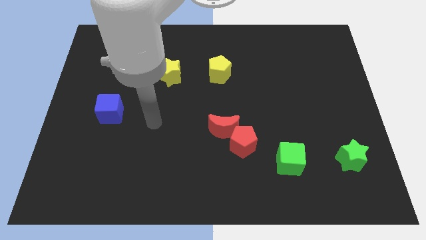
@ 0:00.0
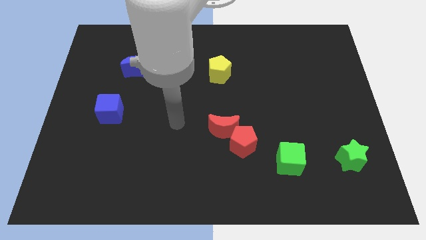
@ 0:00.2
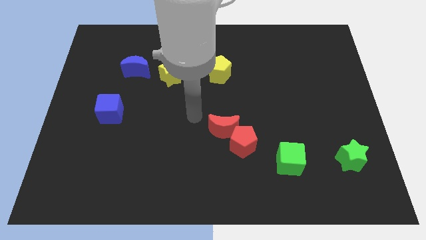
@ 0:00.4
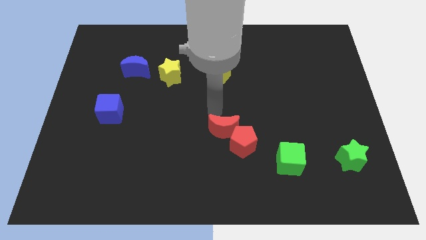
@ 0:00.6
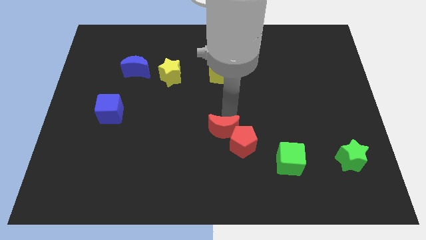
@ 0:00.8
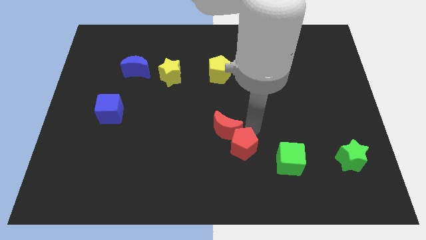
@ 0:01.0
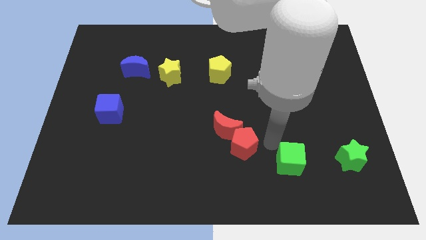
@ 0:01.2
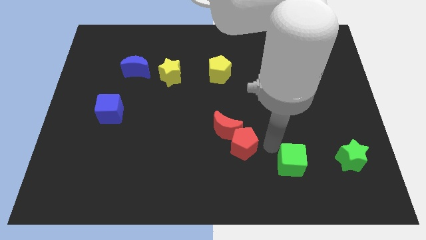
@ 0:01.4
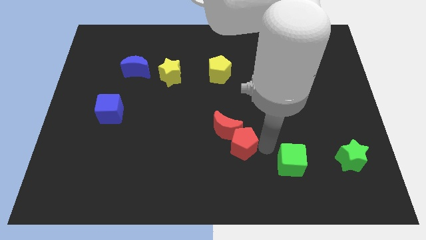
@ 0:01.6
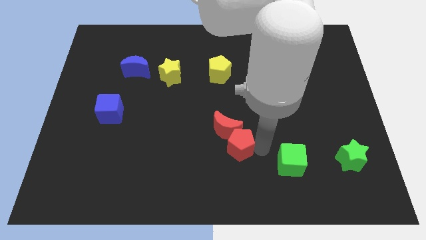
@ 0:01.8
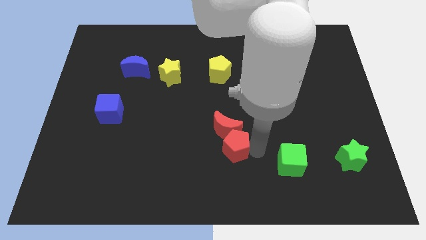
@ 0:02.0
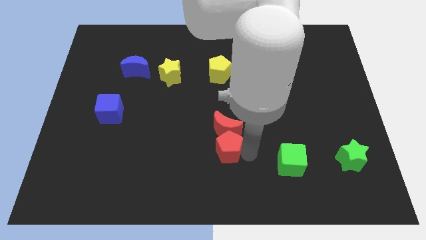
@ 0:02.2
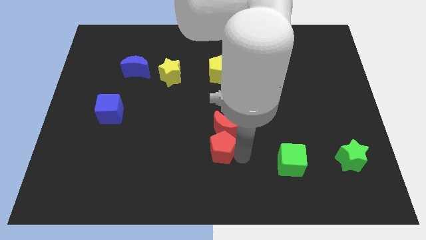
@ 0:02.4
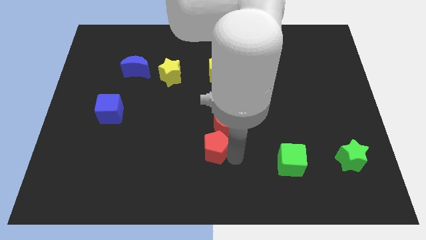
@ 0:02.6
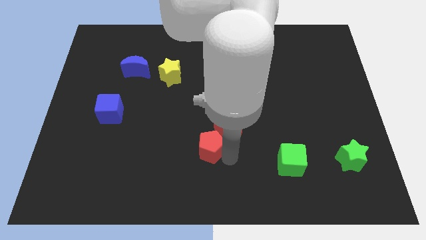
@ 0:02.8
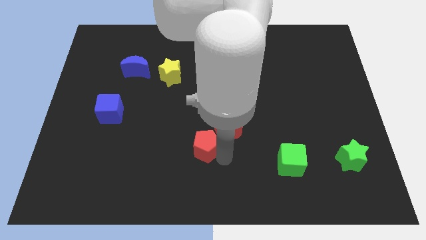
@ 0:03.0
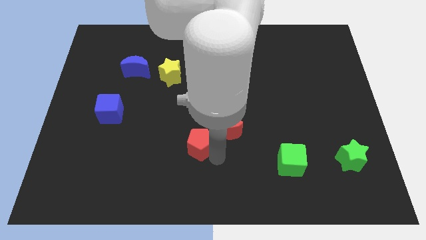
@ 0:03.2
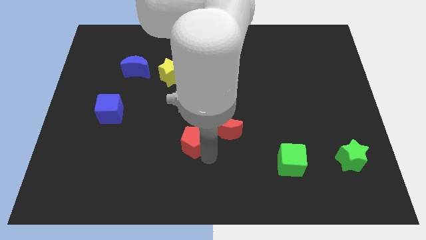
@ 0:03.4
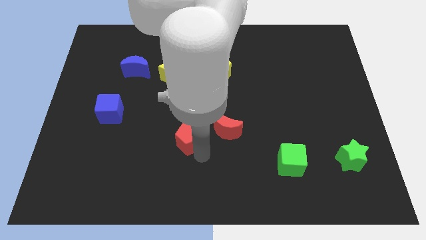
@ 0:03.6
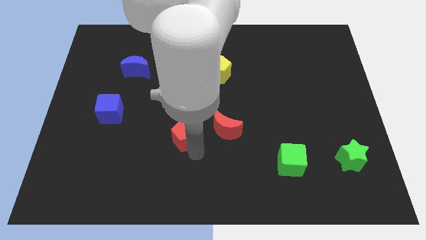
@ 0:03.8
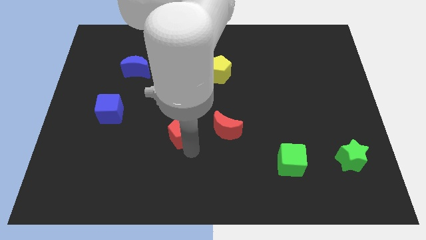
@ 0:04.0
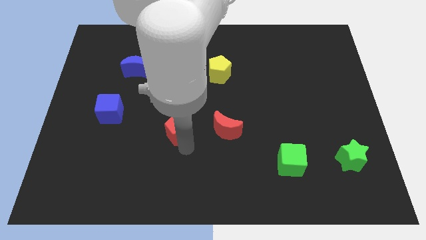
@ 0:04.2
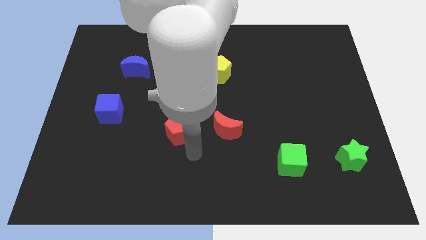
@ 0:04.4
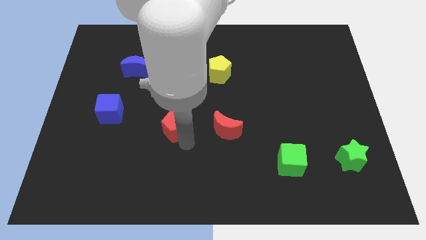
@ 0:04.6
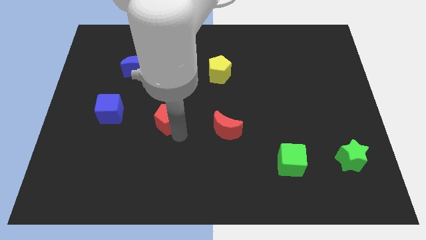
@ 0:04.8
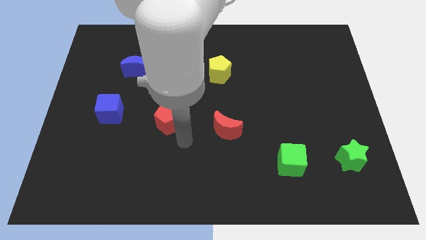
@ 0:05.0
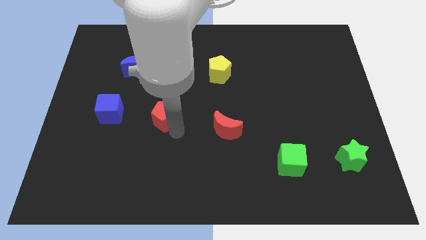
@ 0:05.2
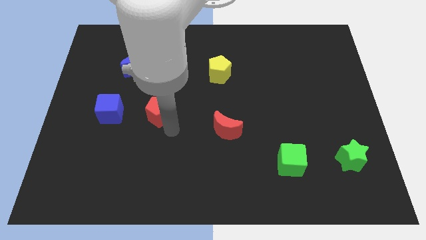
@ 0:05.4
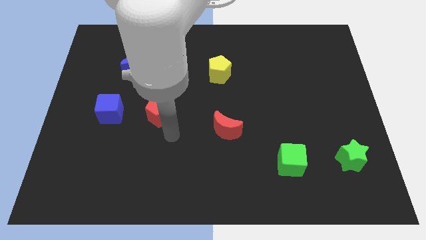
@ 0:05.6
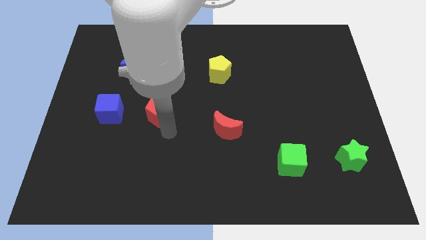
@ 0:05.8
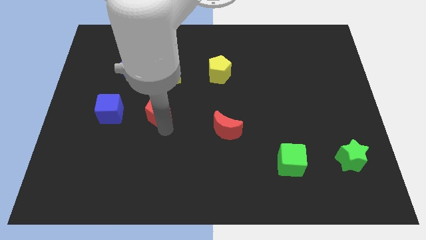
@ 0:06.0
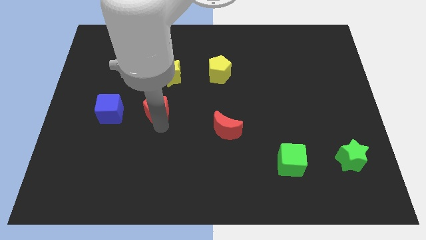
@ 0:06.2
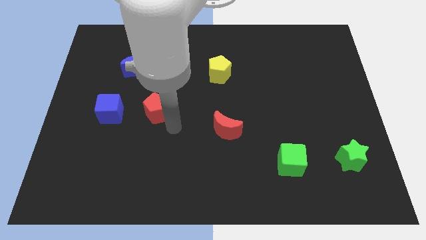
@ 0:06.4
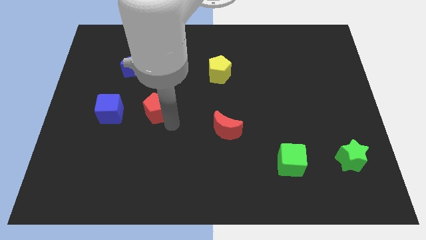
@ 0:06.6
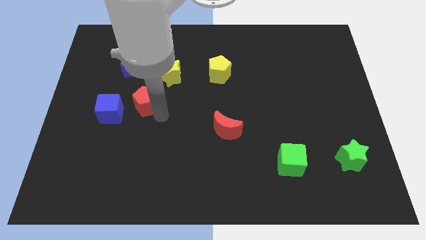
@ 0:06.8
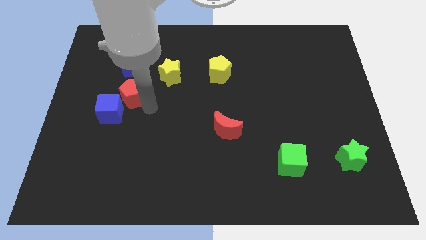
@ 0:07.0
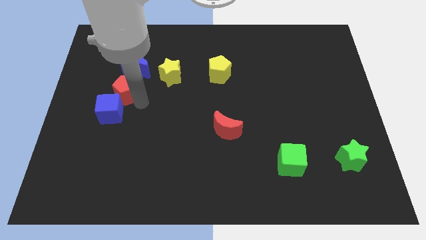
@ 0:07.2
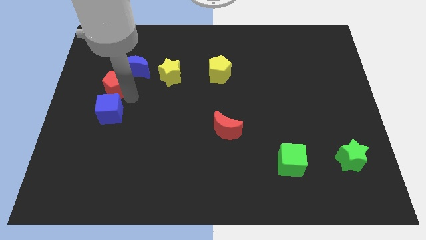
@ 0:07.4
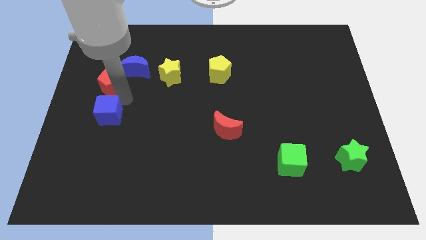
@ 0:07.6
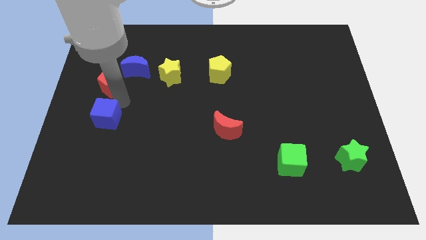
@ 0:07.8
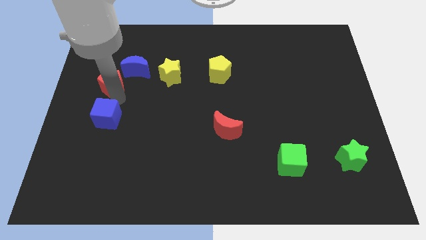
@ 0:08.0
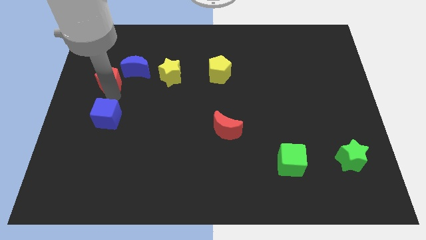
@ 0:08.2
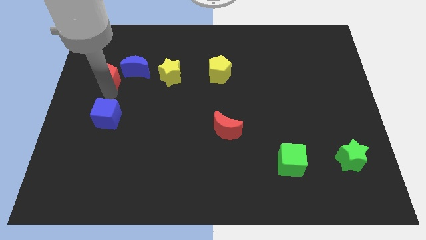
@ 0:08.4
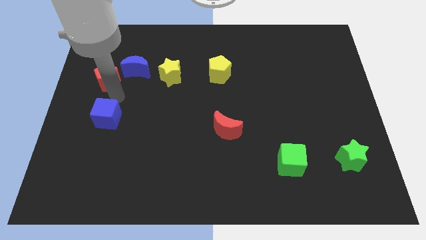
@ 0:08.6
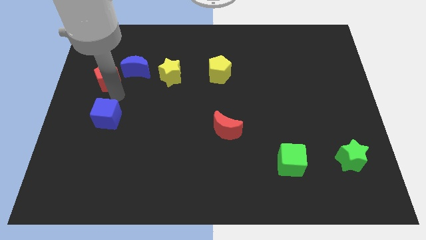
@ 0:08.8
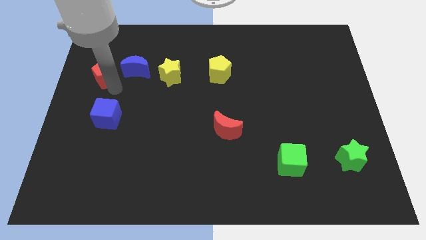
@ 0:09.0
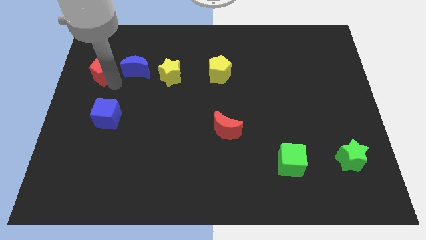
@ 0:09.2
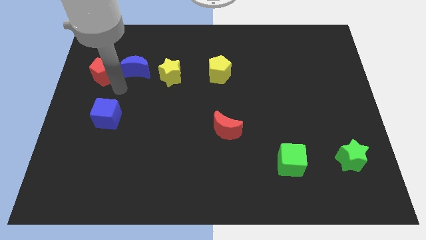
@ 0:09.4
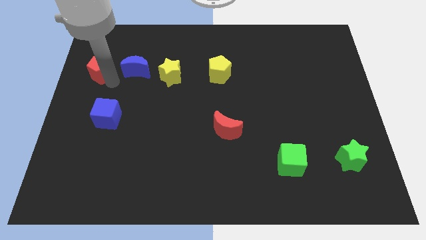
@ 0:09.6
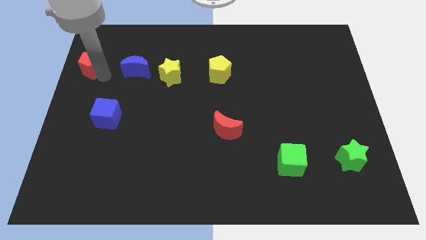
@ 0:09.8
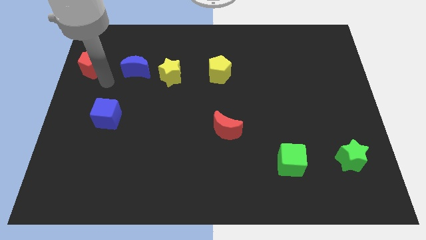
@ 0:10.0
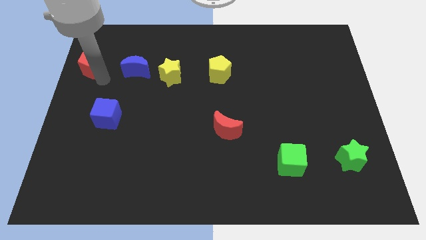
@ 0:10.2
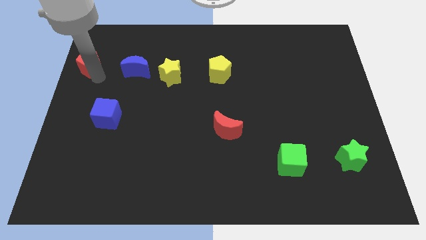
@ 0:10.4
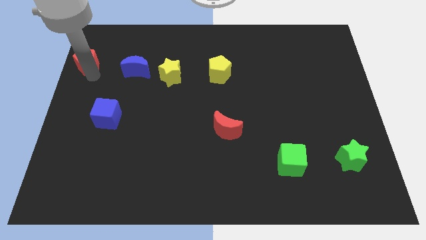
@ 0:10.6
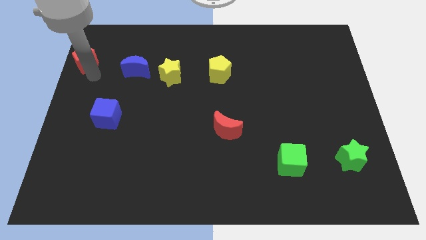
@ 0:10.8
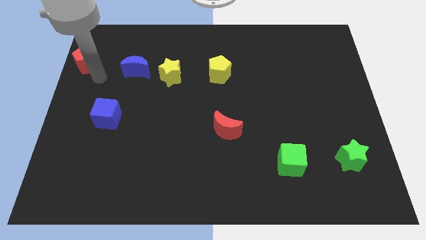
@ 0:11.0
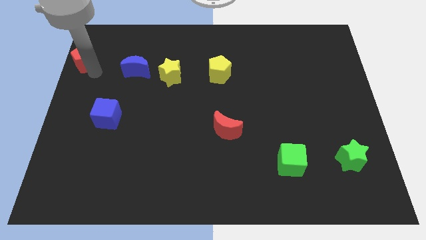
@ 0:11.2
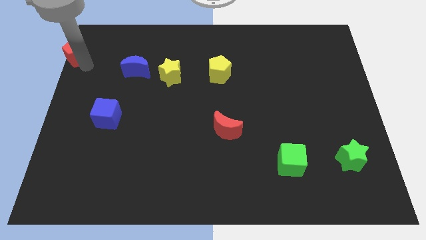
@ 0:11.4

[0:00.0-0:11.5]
put the red pentagon to the upper left corner

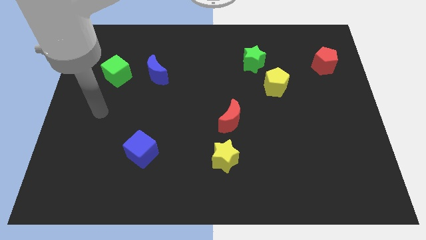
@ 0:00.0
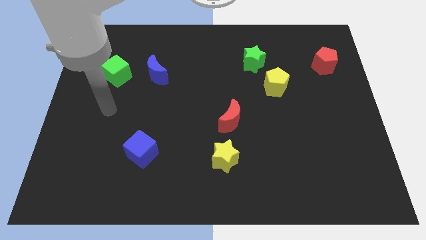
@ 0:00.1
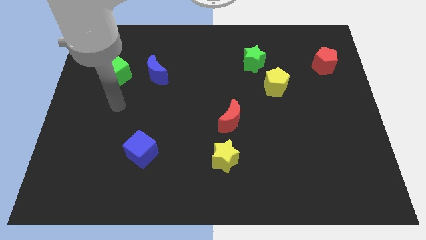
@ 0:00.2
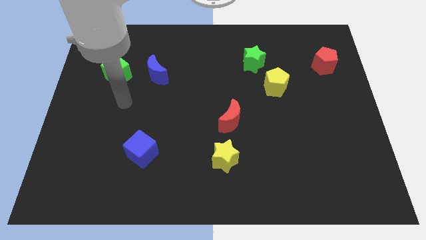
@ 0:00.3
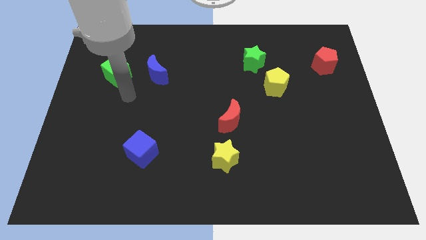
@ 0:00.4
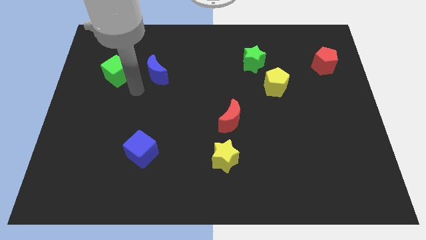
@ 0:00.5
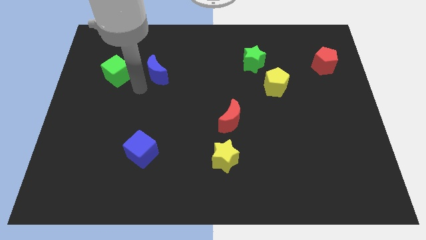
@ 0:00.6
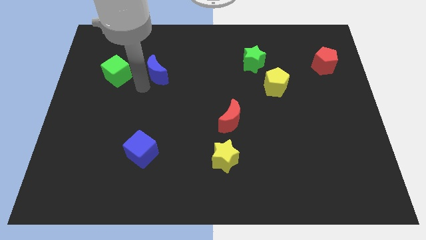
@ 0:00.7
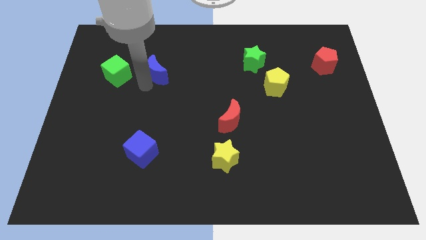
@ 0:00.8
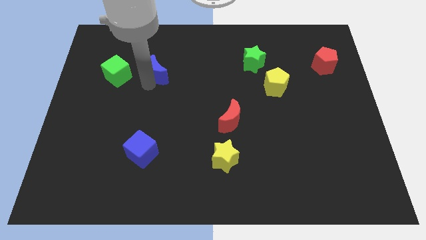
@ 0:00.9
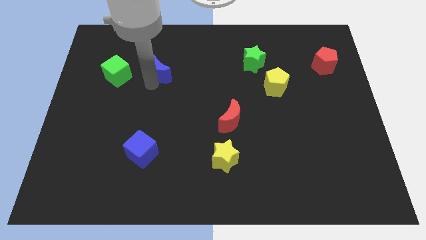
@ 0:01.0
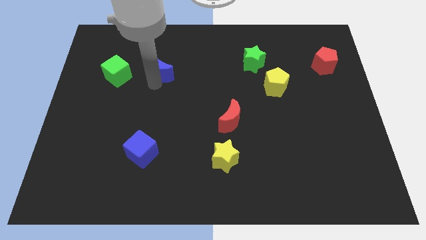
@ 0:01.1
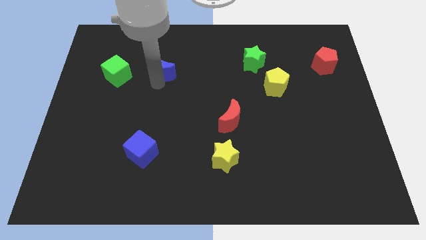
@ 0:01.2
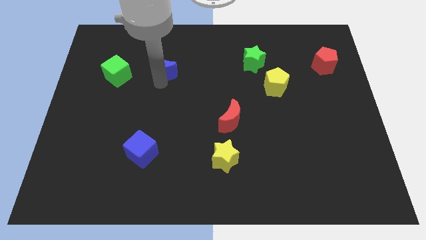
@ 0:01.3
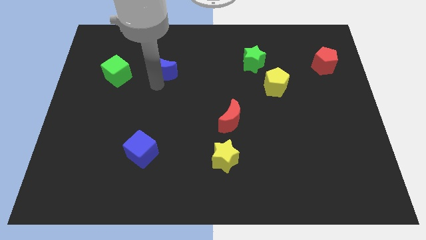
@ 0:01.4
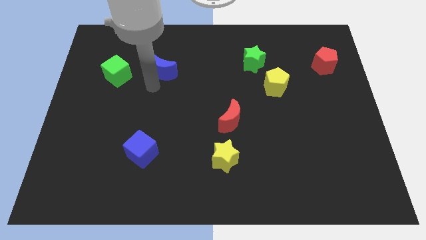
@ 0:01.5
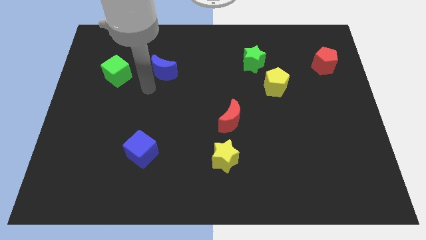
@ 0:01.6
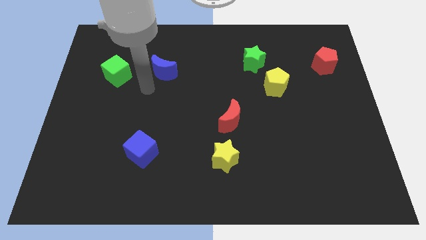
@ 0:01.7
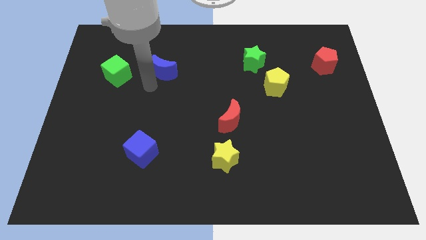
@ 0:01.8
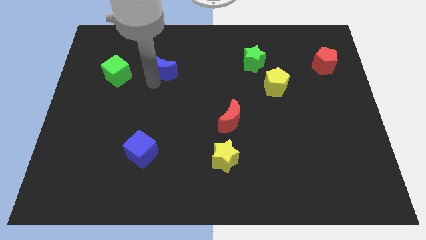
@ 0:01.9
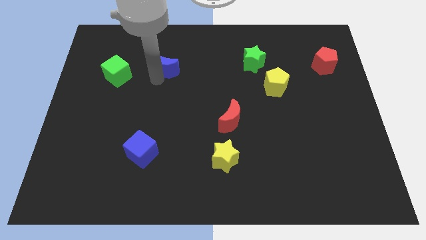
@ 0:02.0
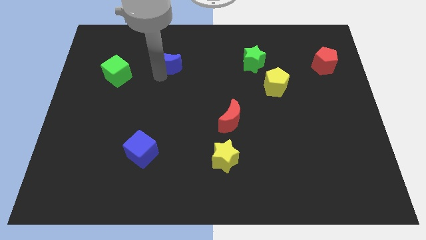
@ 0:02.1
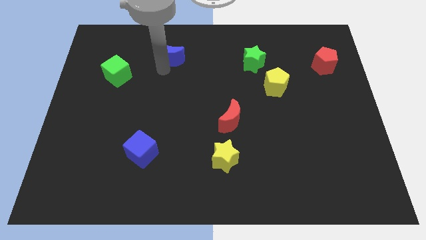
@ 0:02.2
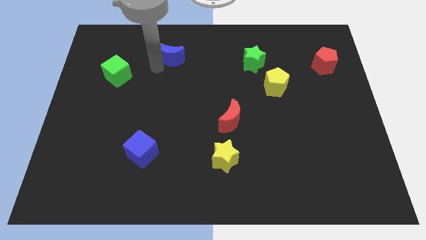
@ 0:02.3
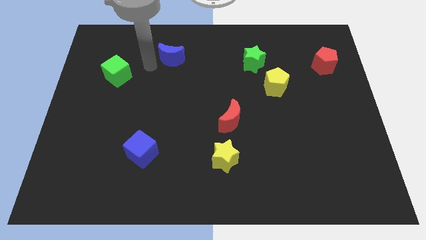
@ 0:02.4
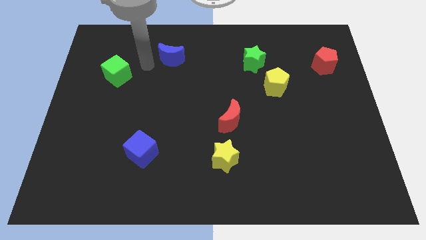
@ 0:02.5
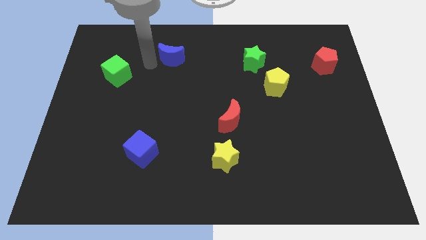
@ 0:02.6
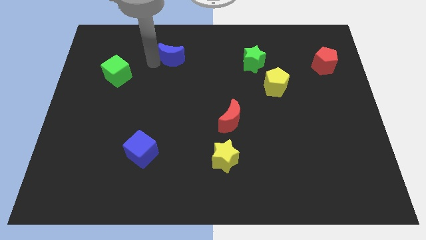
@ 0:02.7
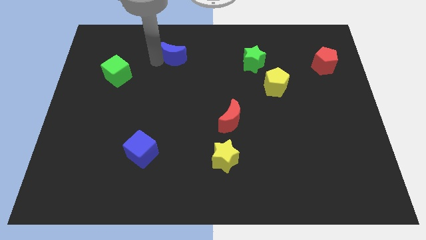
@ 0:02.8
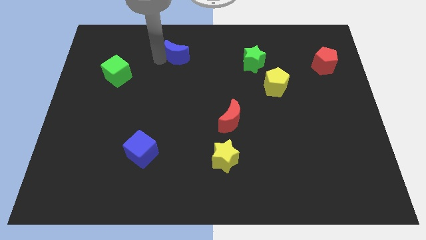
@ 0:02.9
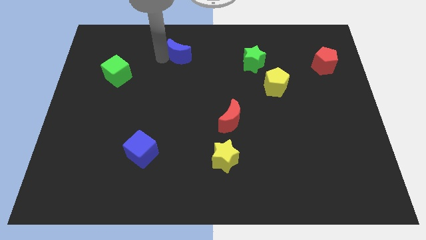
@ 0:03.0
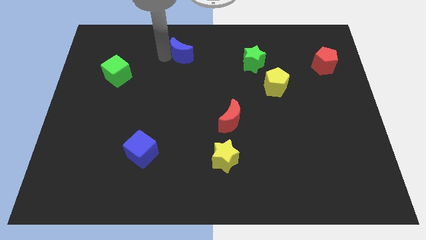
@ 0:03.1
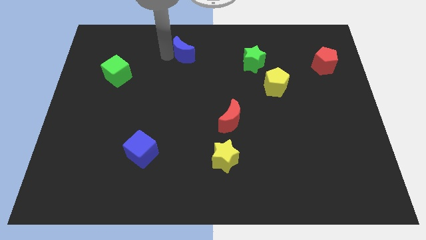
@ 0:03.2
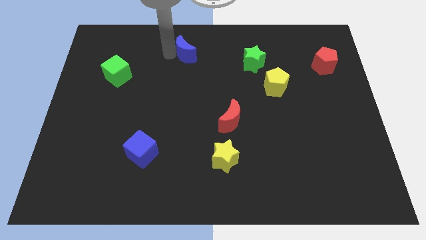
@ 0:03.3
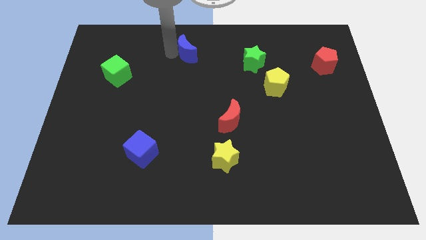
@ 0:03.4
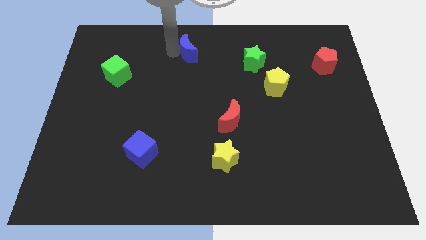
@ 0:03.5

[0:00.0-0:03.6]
move the blue moon to the towards your base
